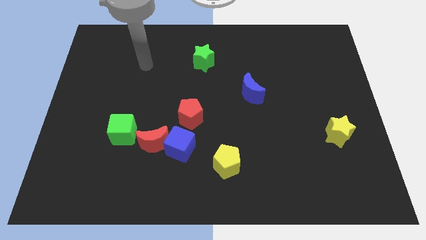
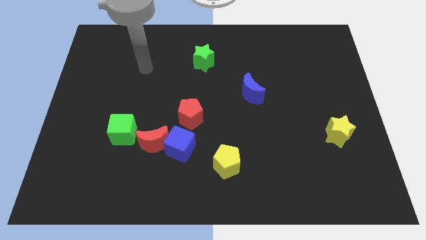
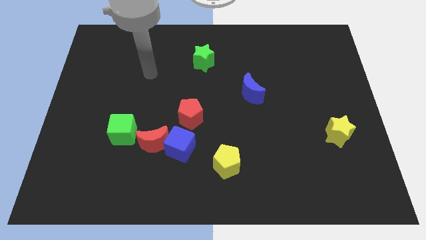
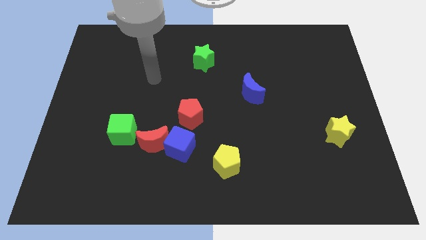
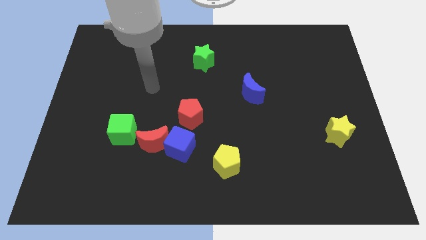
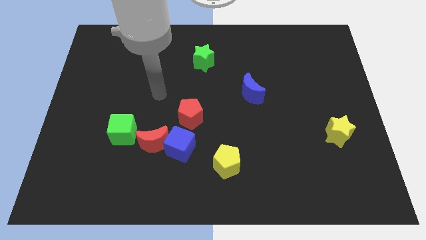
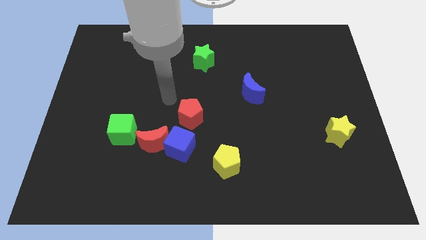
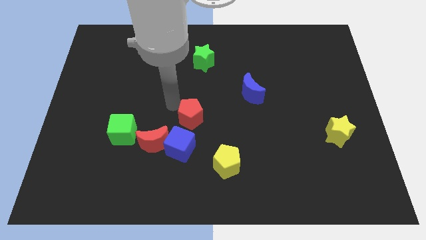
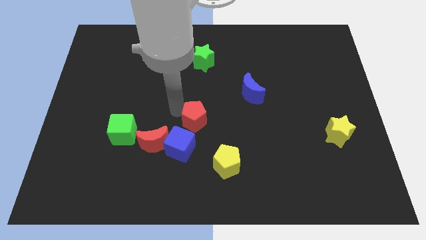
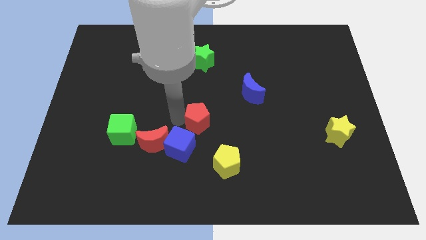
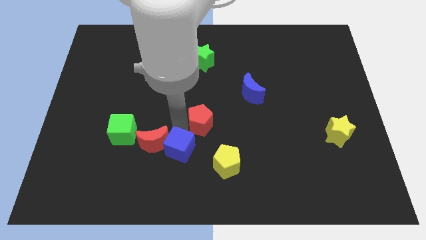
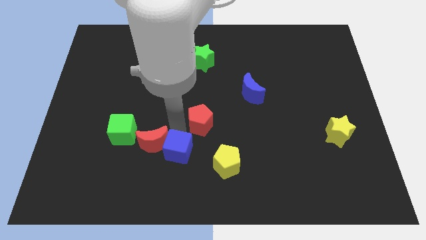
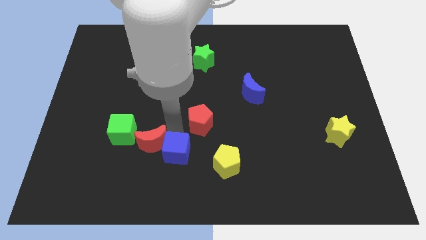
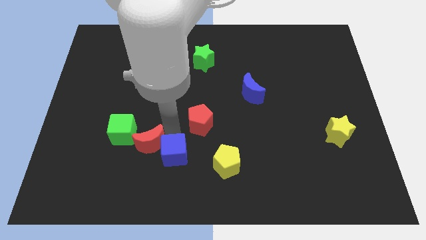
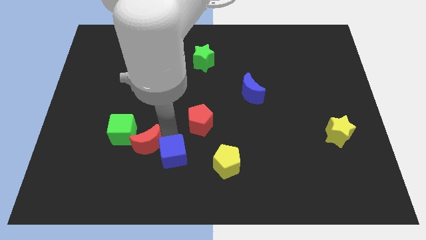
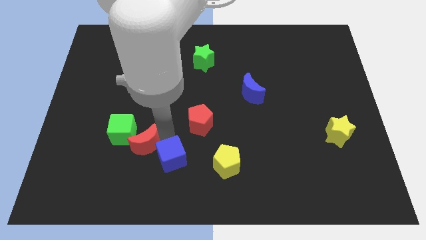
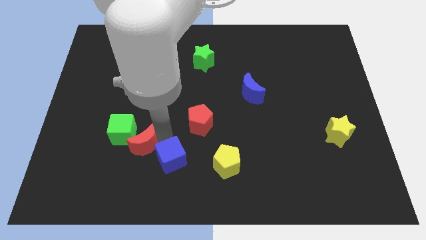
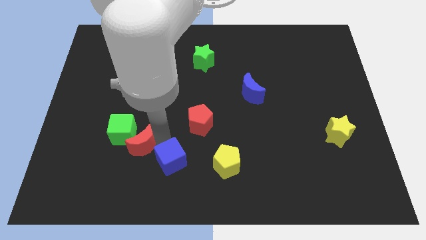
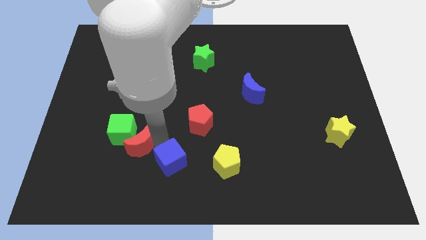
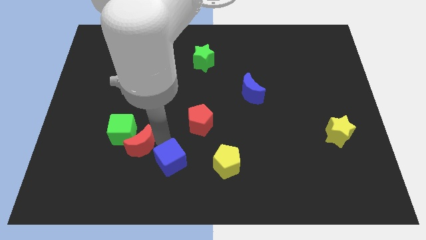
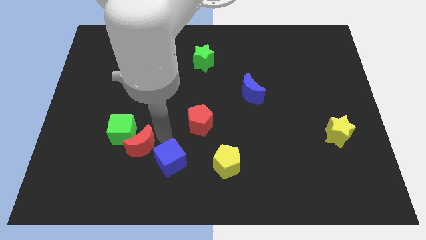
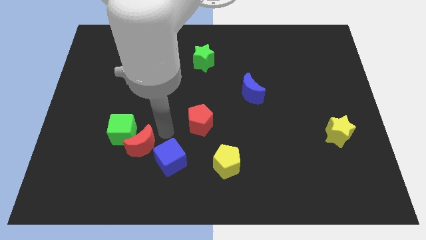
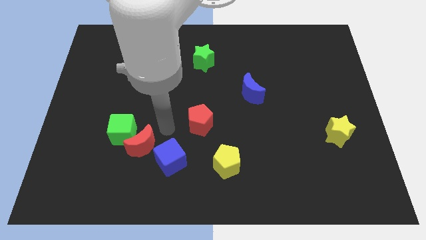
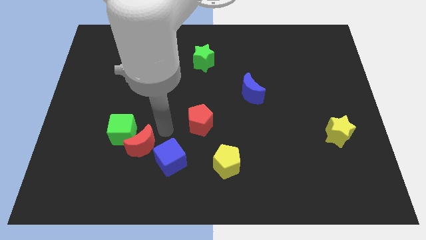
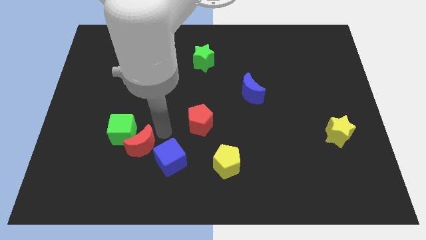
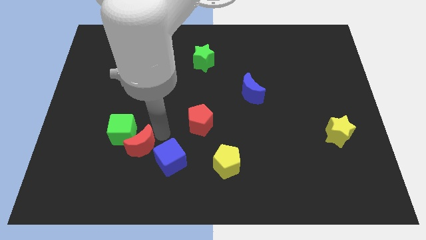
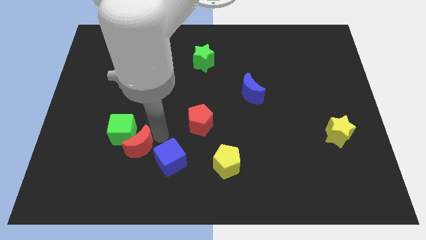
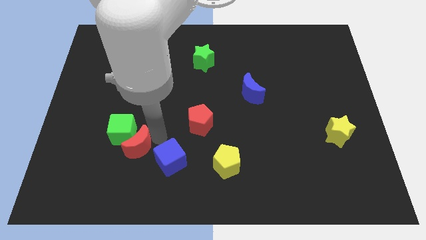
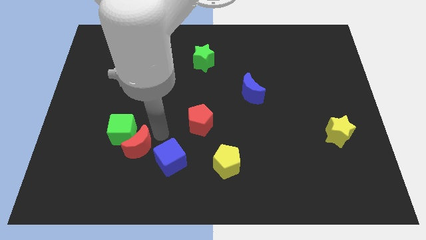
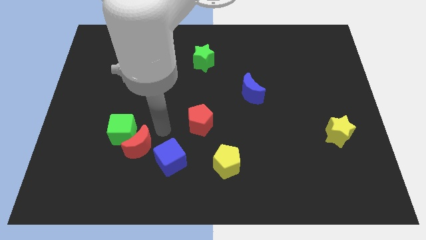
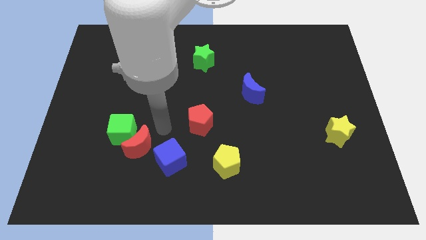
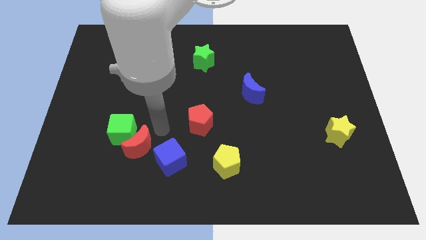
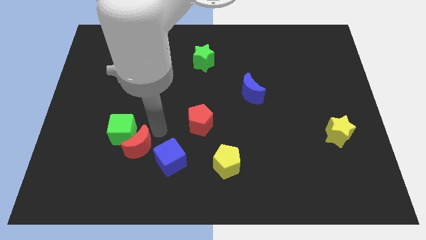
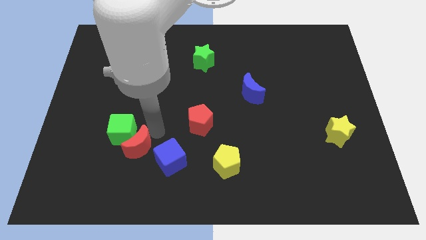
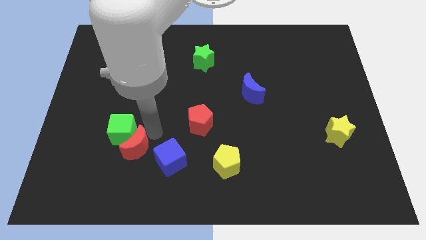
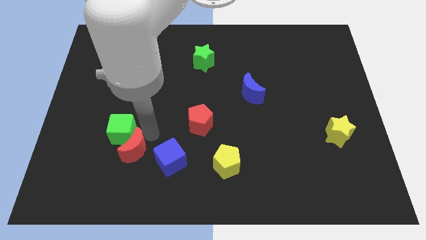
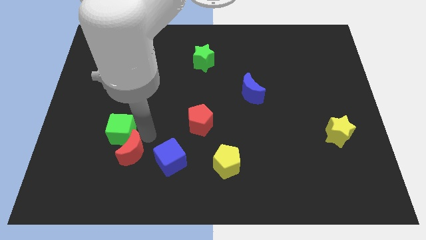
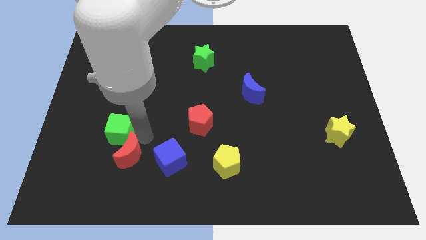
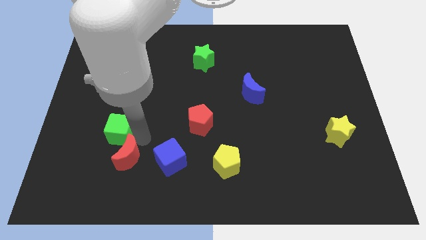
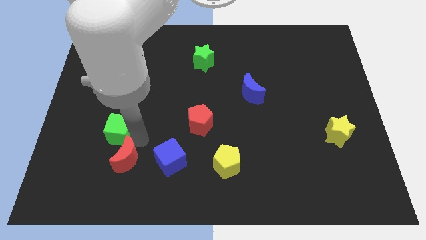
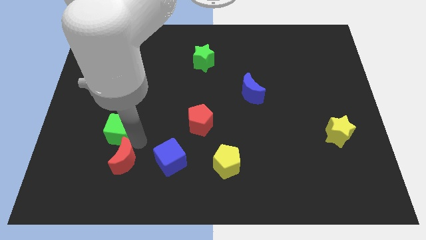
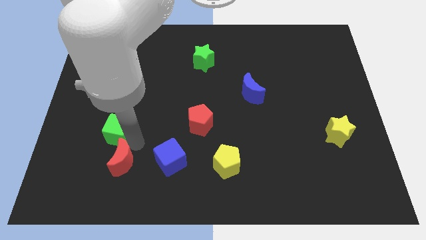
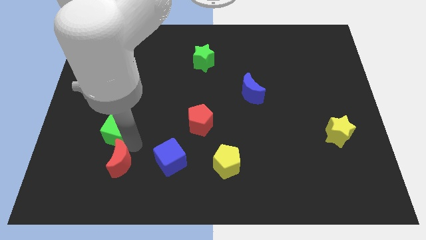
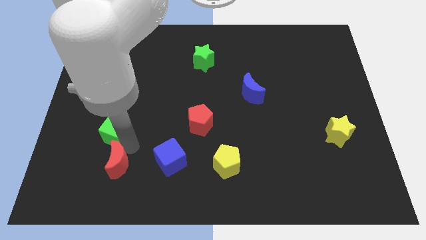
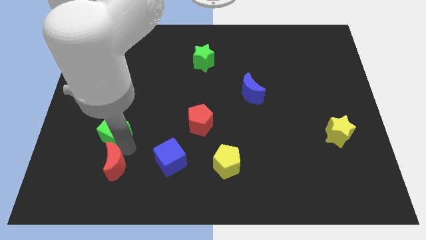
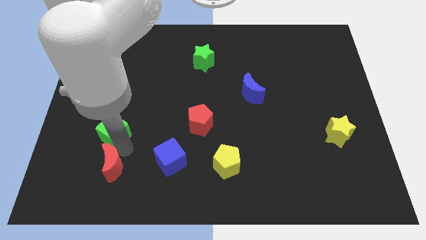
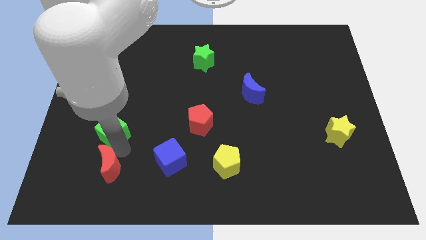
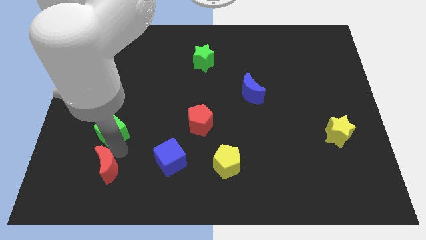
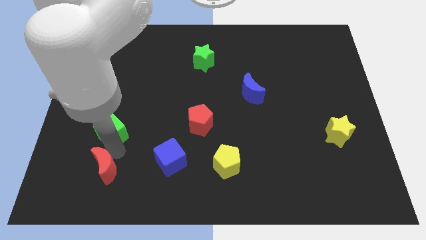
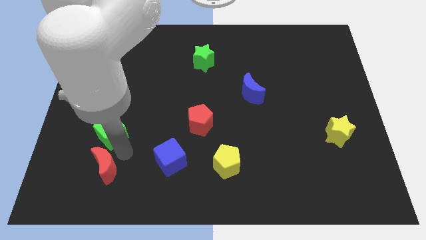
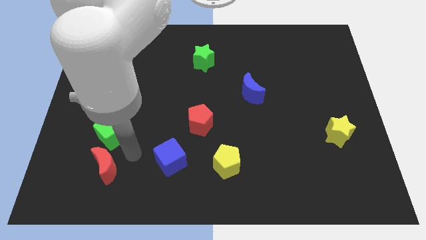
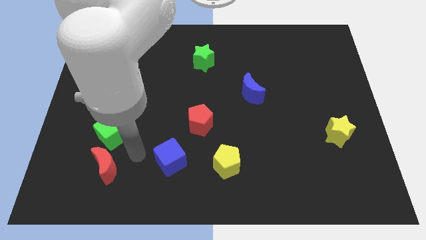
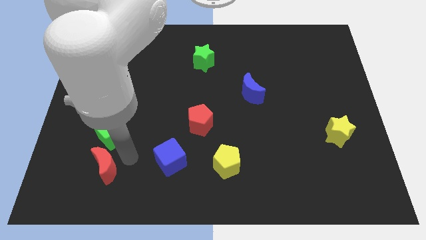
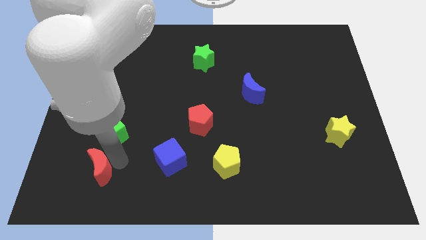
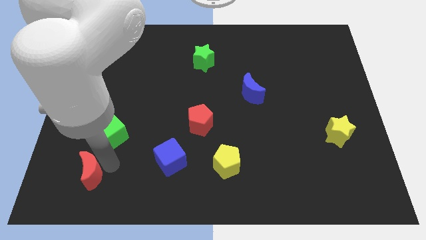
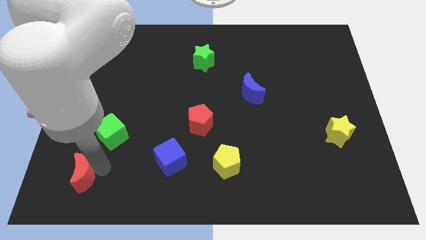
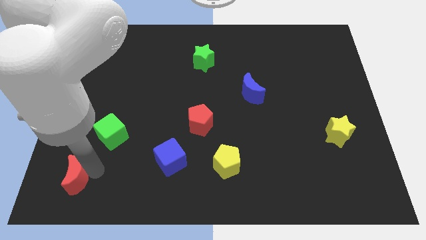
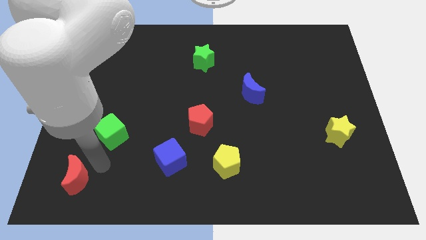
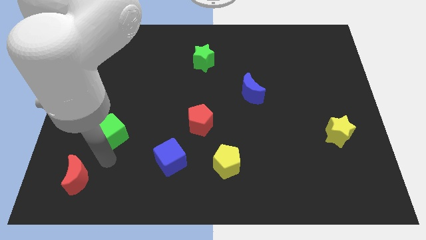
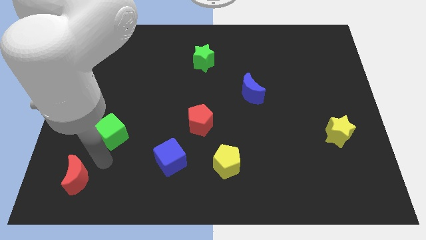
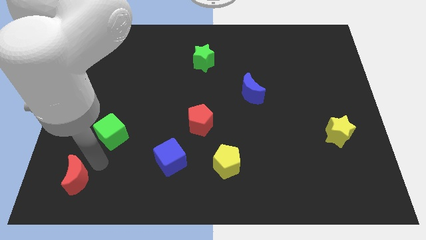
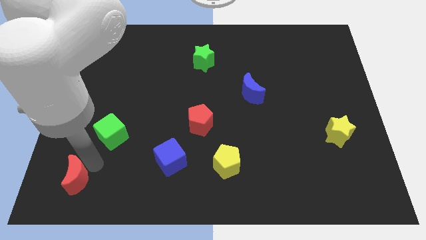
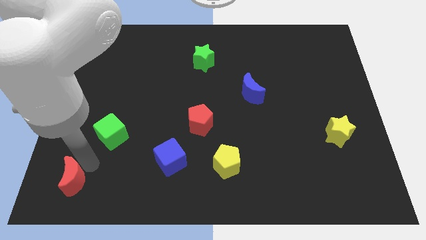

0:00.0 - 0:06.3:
push the red moon to the bottom left corner
